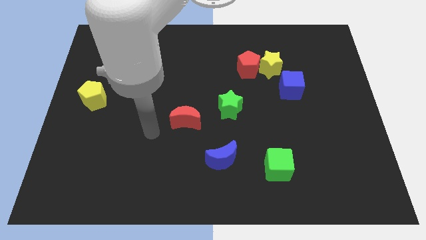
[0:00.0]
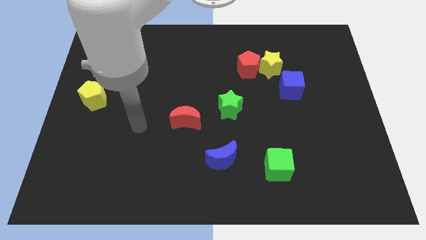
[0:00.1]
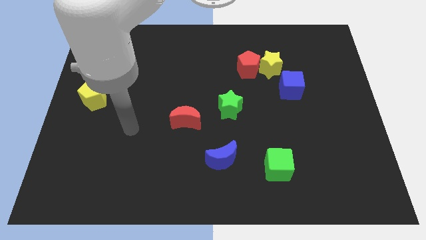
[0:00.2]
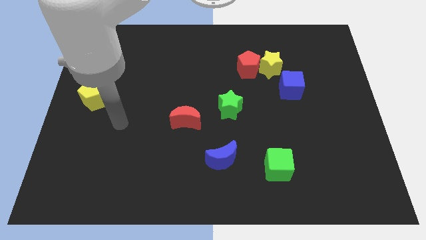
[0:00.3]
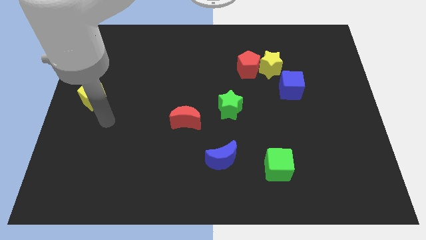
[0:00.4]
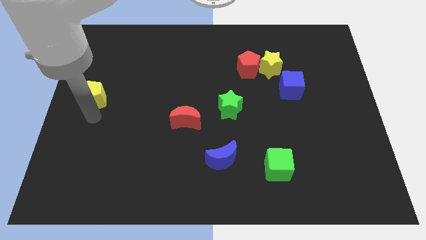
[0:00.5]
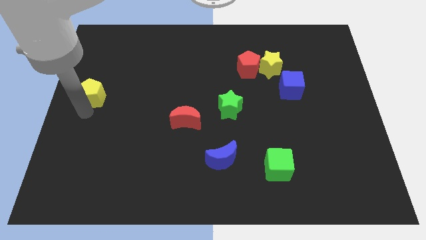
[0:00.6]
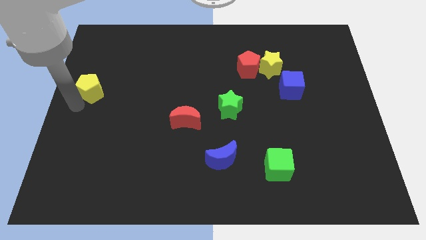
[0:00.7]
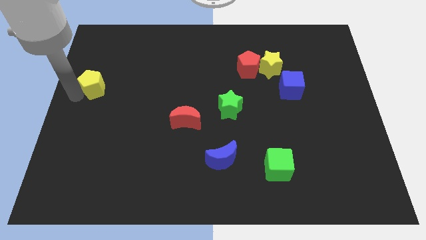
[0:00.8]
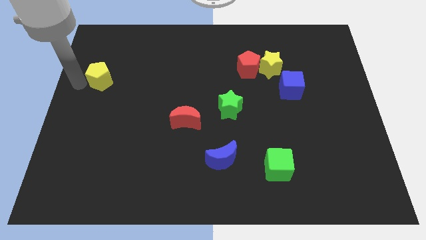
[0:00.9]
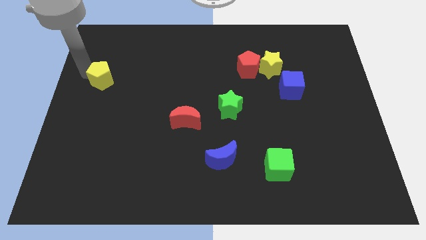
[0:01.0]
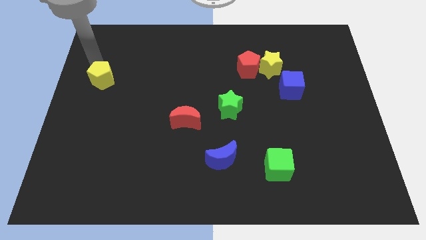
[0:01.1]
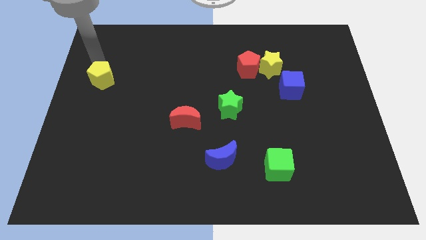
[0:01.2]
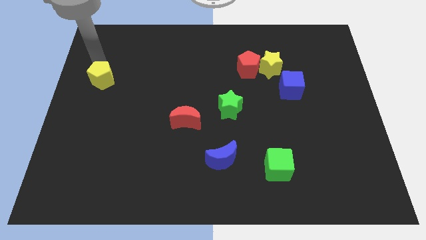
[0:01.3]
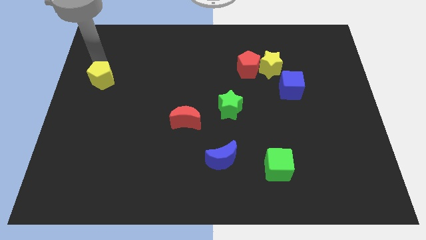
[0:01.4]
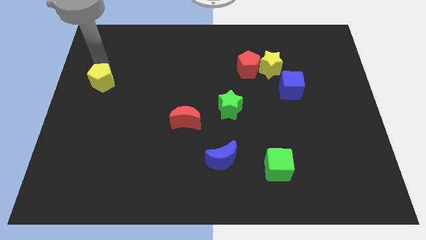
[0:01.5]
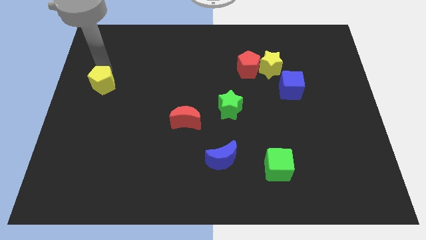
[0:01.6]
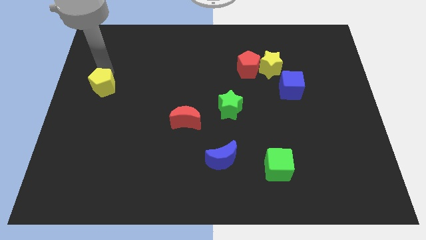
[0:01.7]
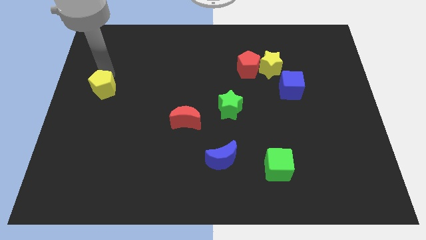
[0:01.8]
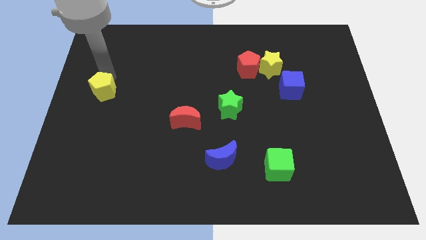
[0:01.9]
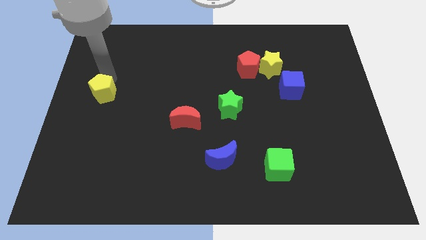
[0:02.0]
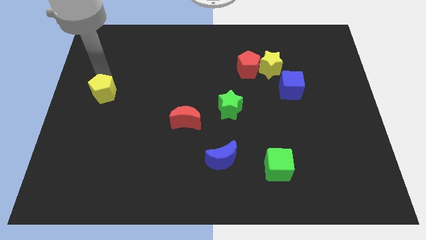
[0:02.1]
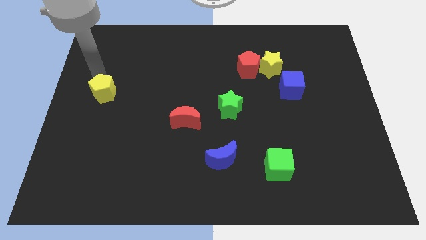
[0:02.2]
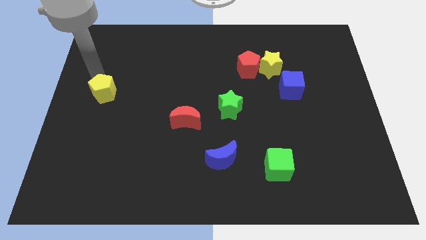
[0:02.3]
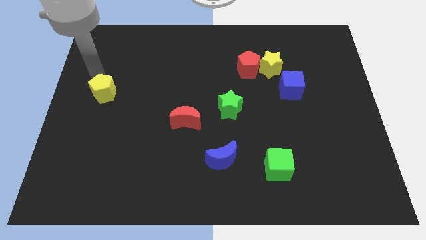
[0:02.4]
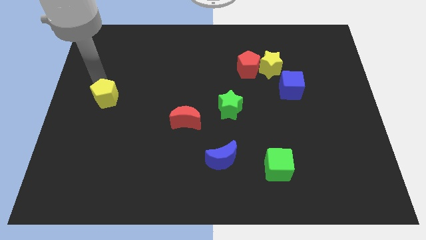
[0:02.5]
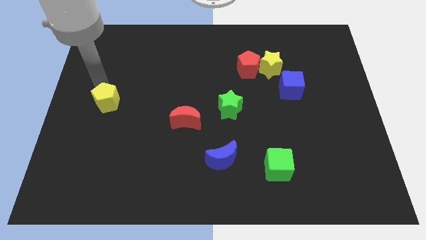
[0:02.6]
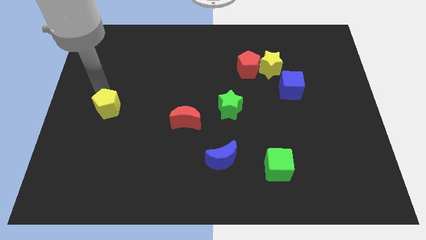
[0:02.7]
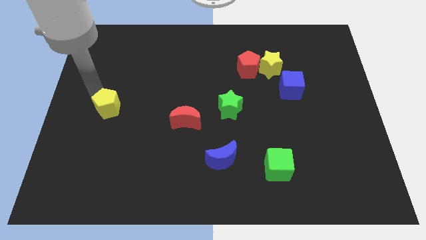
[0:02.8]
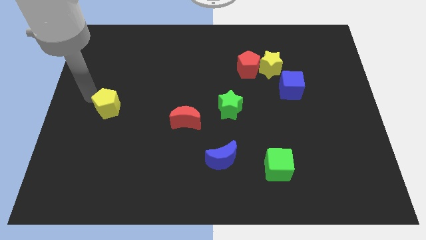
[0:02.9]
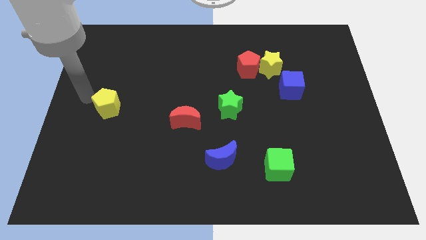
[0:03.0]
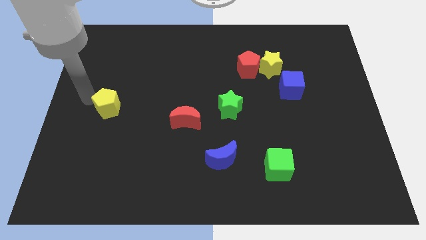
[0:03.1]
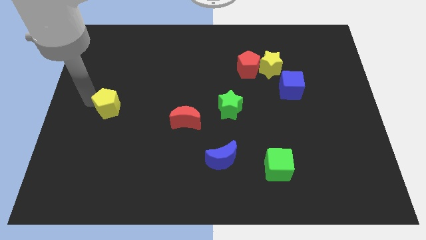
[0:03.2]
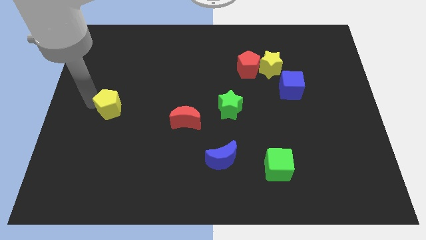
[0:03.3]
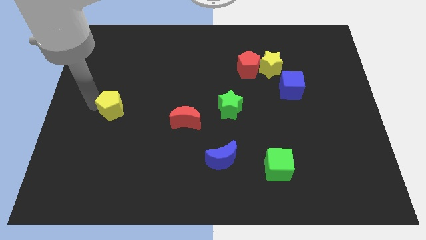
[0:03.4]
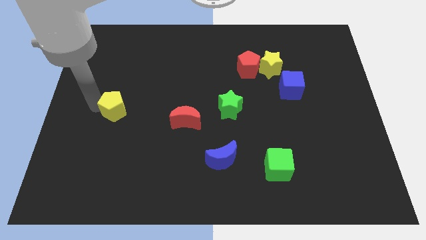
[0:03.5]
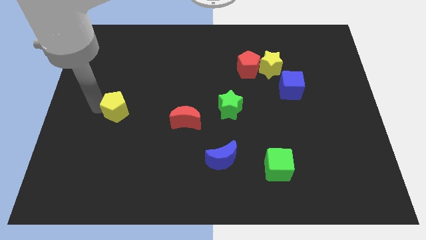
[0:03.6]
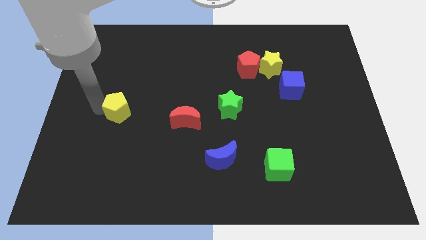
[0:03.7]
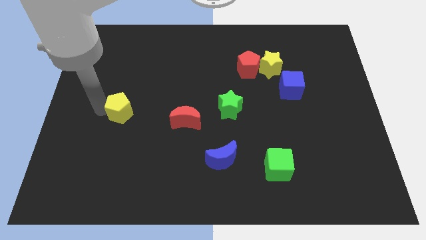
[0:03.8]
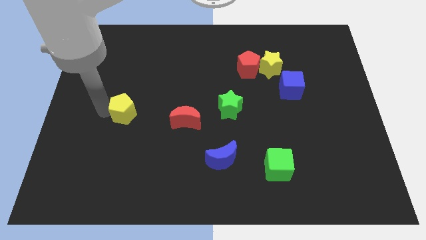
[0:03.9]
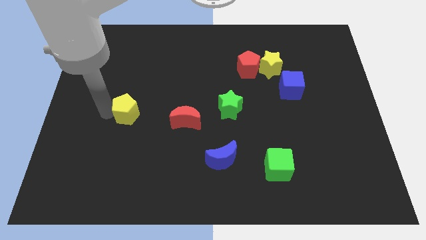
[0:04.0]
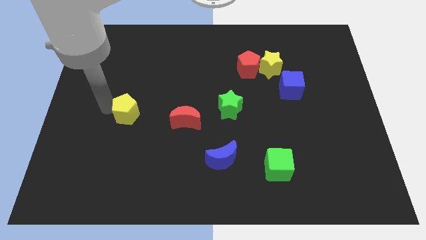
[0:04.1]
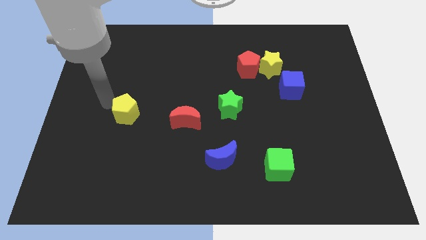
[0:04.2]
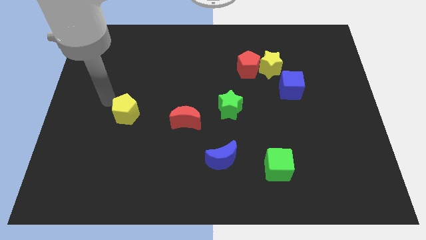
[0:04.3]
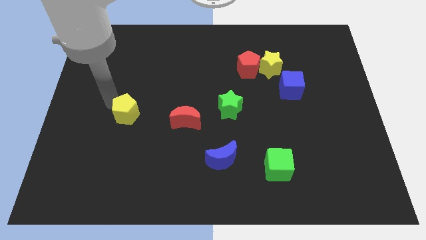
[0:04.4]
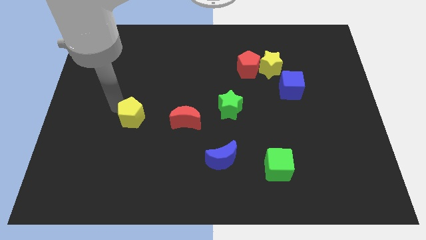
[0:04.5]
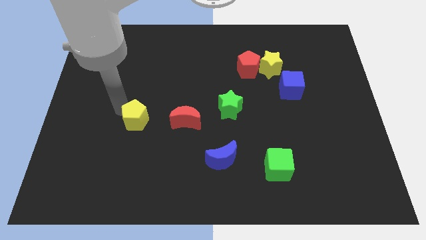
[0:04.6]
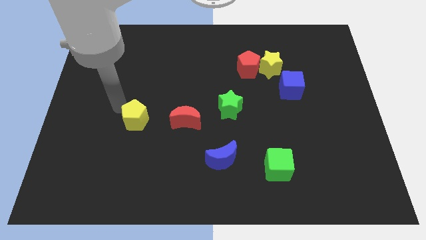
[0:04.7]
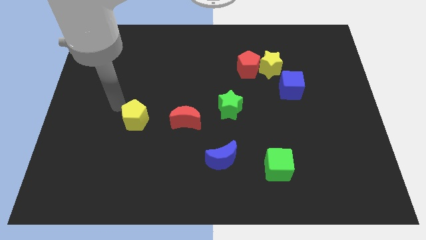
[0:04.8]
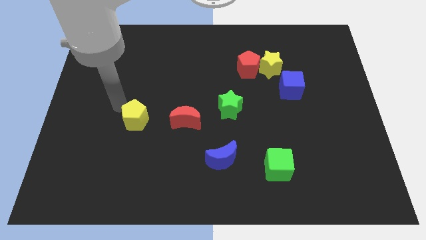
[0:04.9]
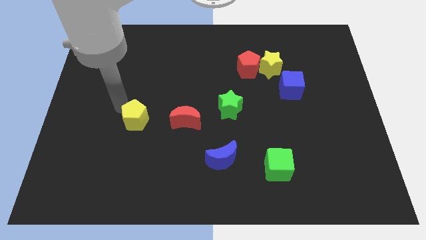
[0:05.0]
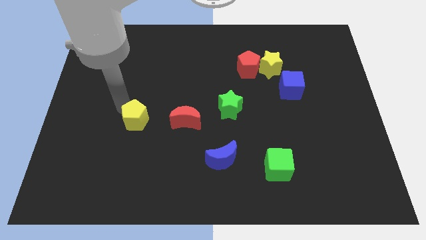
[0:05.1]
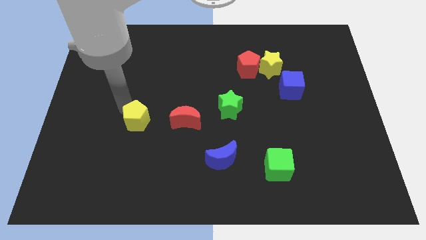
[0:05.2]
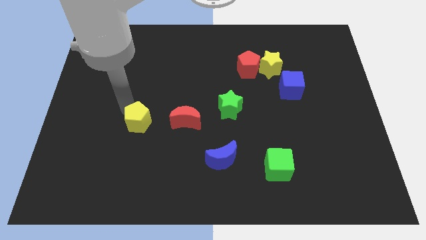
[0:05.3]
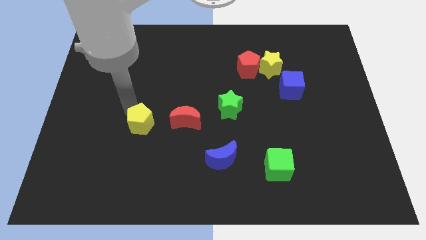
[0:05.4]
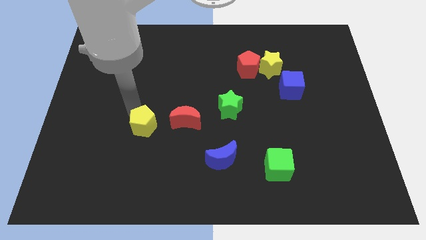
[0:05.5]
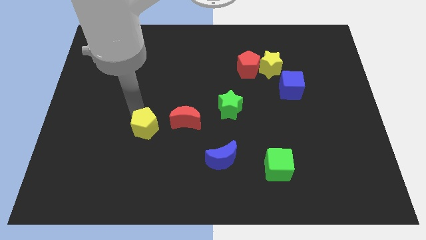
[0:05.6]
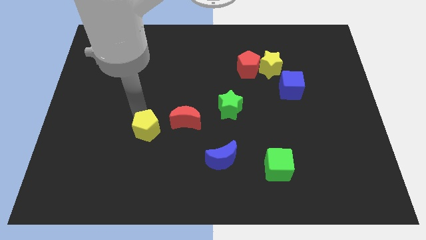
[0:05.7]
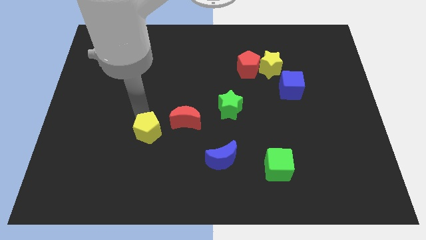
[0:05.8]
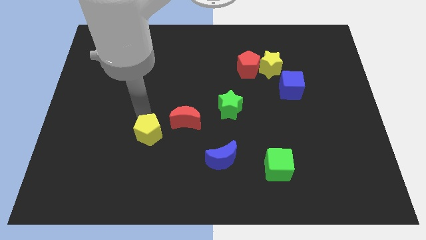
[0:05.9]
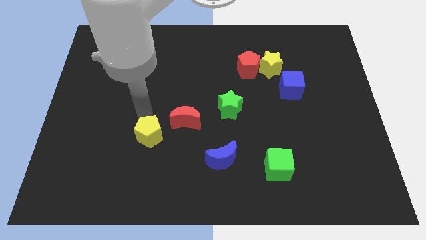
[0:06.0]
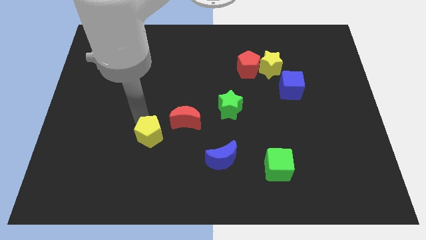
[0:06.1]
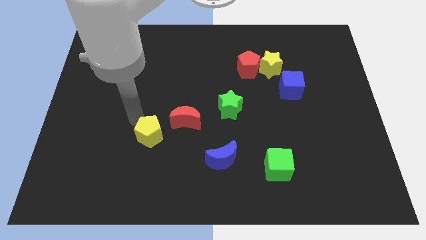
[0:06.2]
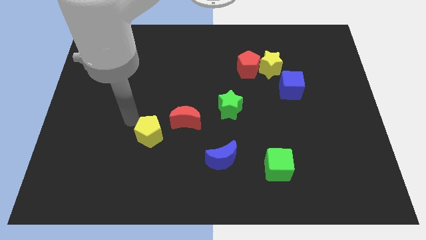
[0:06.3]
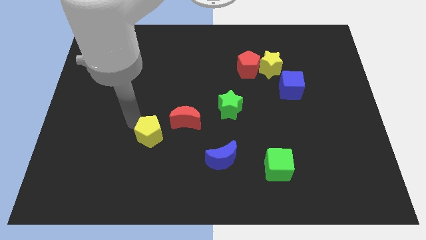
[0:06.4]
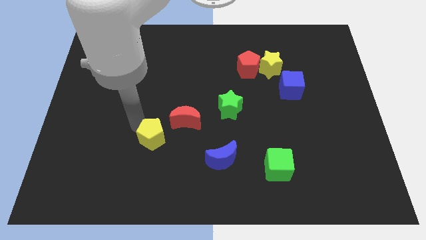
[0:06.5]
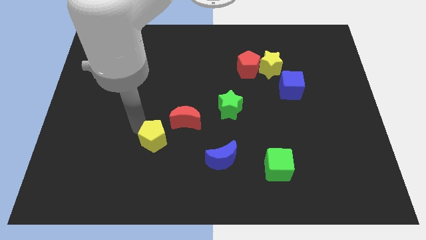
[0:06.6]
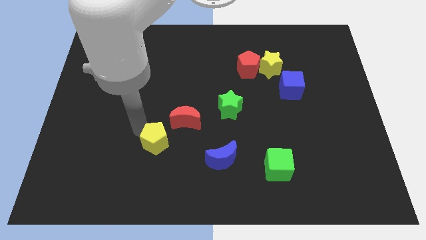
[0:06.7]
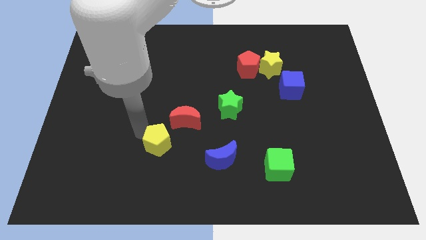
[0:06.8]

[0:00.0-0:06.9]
put the yellow pentagon to the left of the blue moon

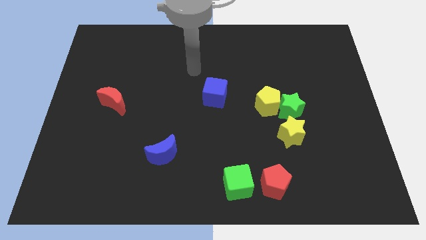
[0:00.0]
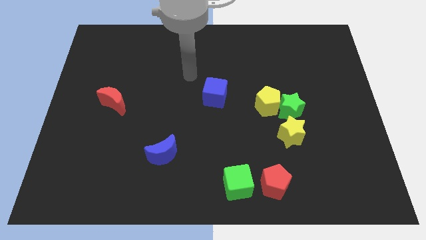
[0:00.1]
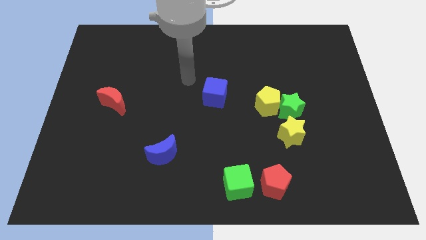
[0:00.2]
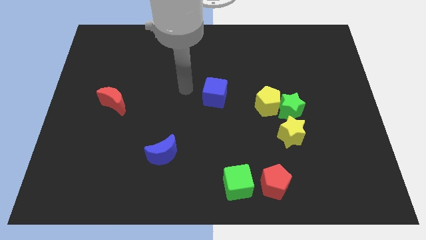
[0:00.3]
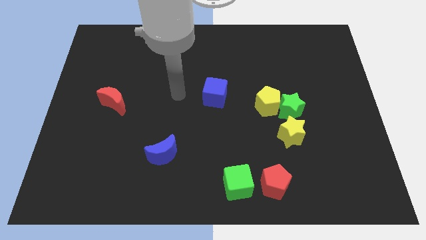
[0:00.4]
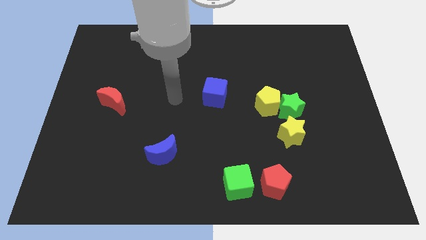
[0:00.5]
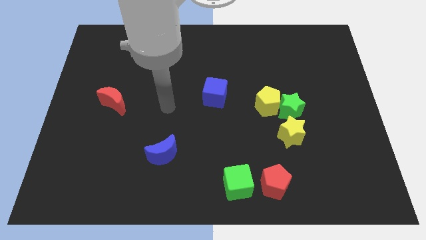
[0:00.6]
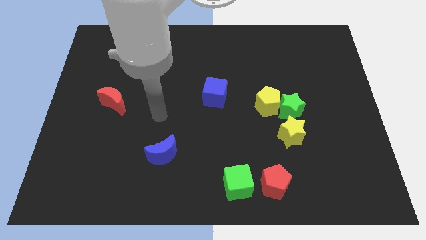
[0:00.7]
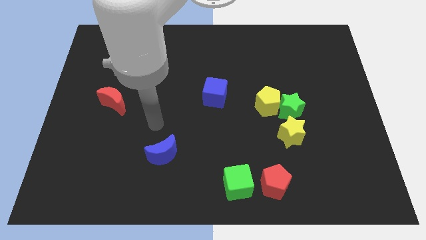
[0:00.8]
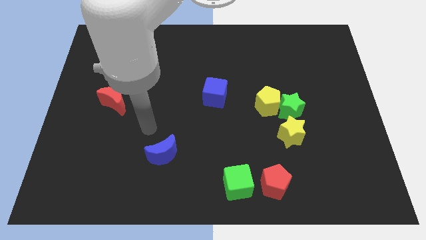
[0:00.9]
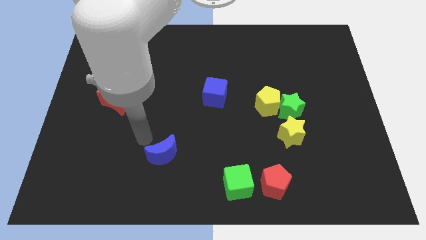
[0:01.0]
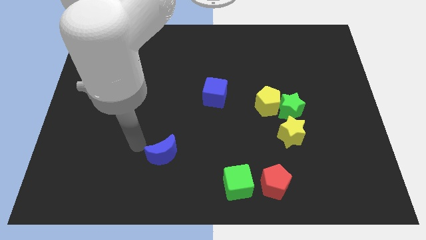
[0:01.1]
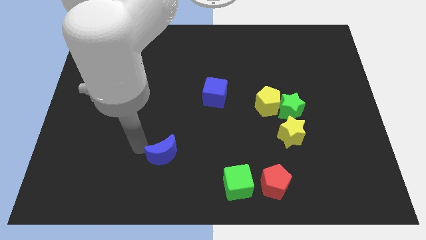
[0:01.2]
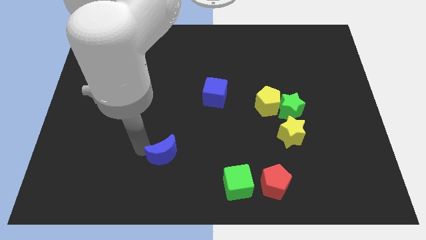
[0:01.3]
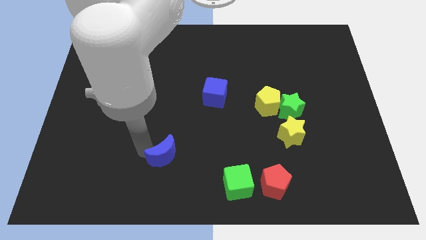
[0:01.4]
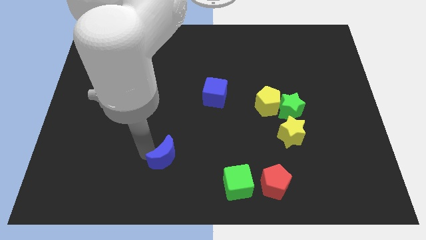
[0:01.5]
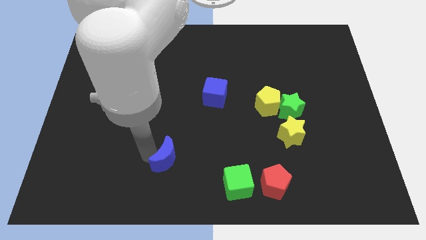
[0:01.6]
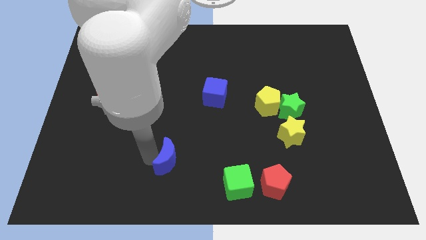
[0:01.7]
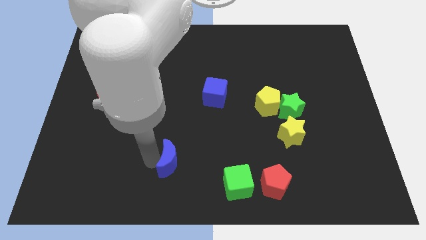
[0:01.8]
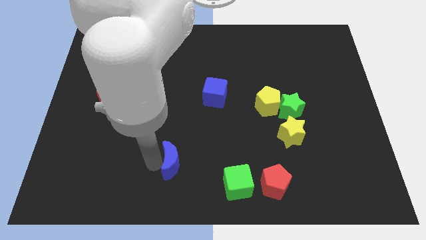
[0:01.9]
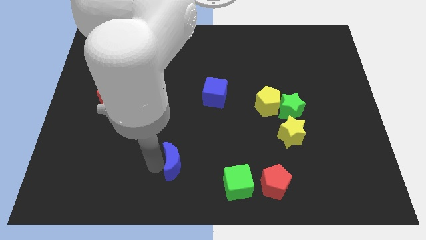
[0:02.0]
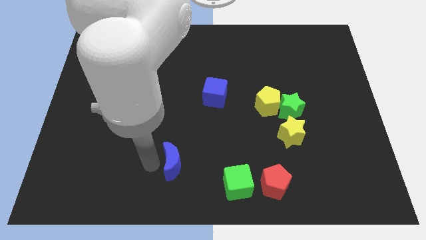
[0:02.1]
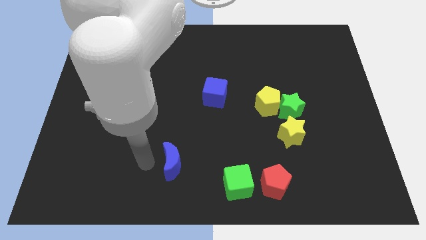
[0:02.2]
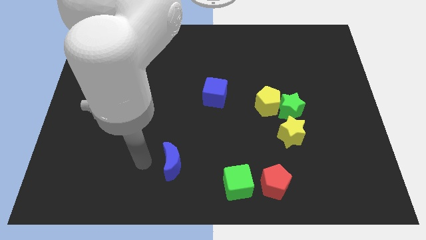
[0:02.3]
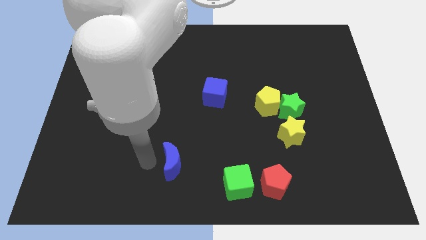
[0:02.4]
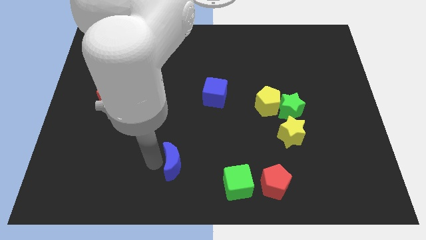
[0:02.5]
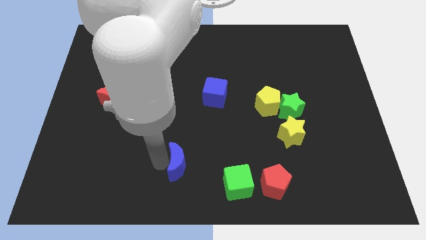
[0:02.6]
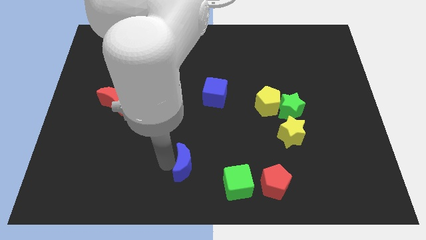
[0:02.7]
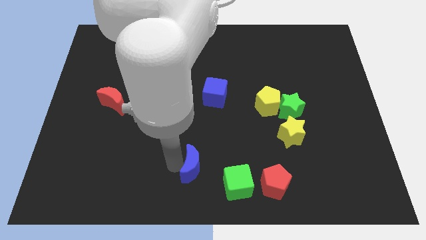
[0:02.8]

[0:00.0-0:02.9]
slide the blue moon to the top left of the green cube
